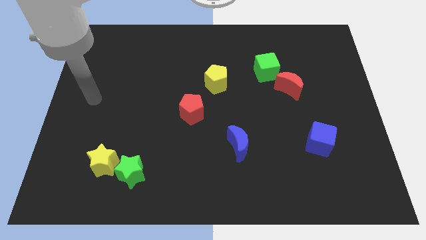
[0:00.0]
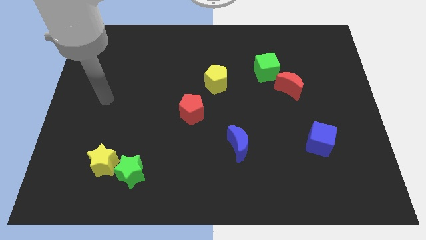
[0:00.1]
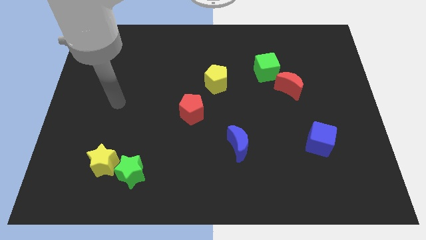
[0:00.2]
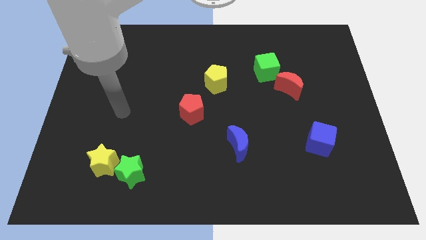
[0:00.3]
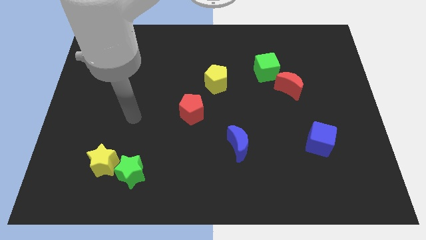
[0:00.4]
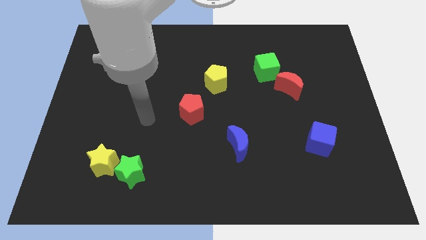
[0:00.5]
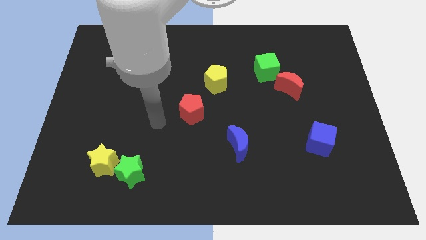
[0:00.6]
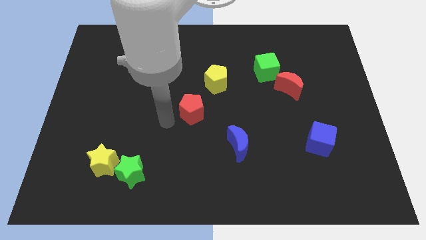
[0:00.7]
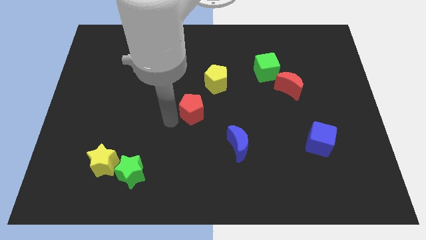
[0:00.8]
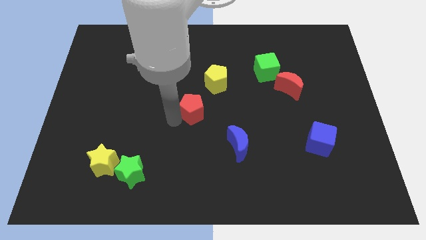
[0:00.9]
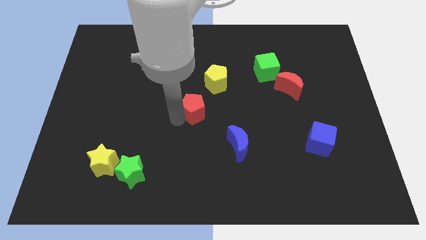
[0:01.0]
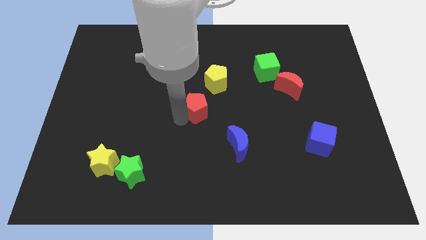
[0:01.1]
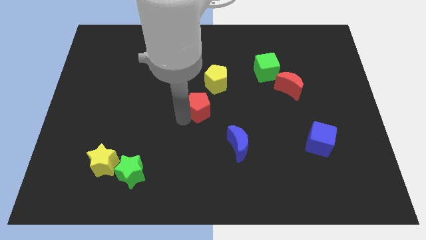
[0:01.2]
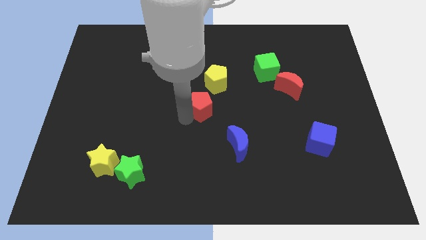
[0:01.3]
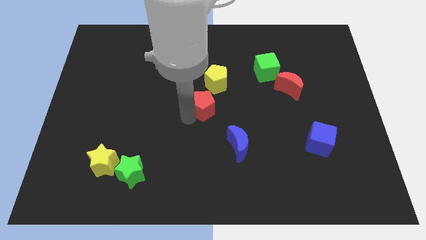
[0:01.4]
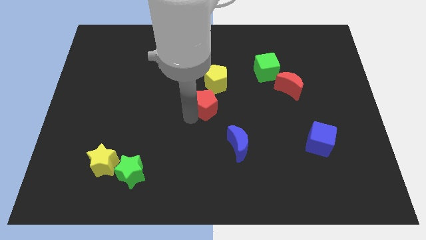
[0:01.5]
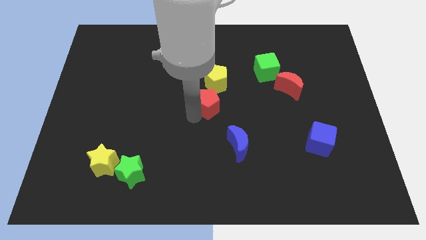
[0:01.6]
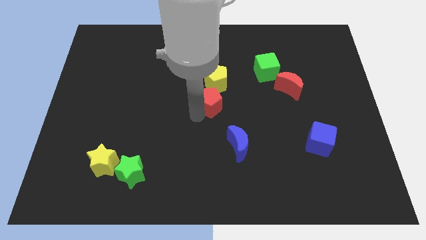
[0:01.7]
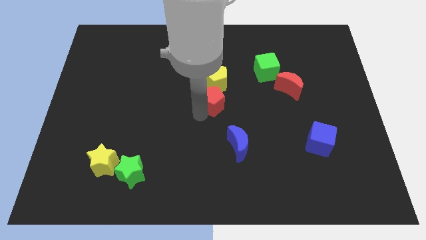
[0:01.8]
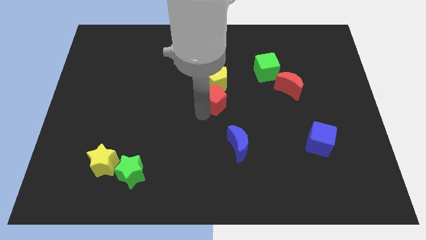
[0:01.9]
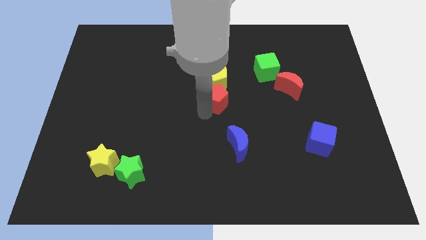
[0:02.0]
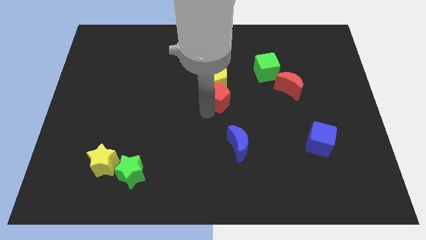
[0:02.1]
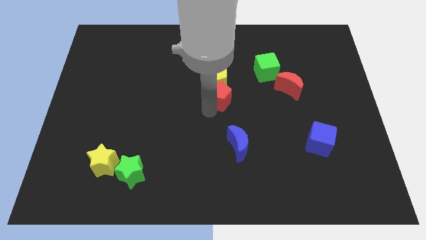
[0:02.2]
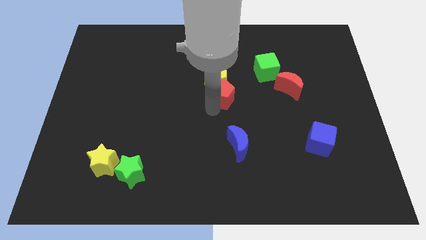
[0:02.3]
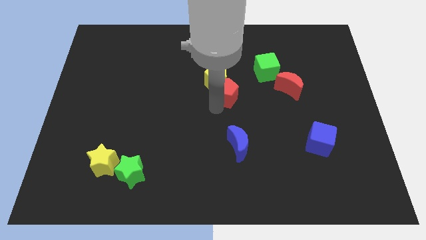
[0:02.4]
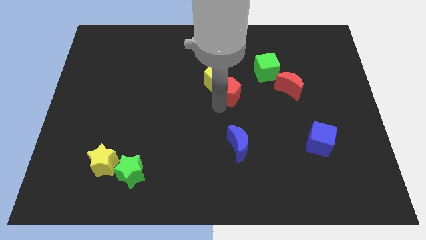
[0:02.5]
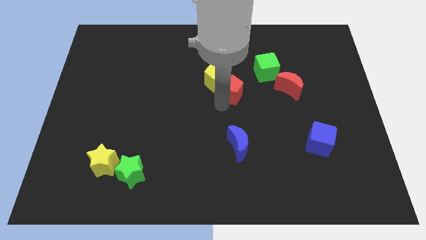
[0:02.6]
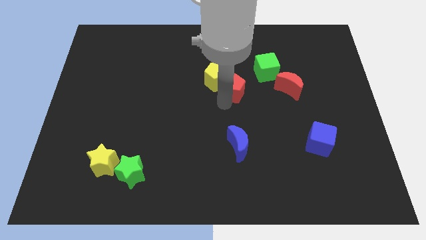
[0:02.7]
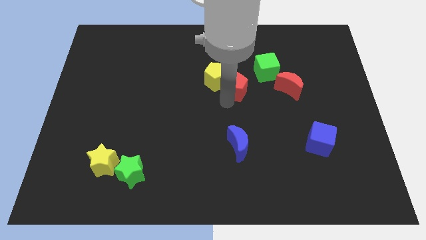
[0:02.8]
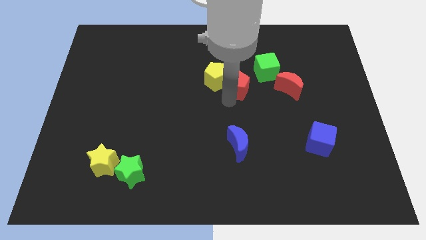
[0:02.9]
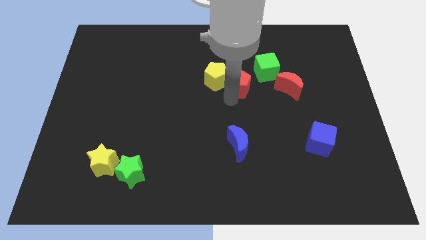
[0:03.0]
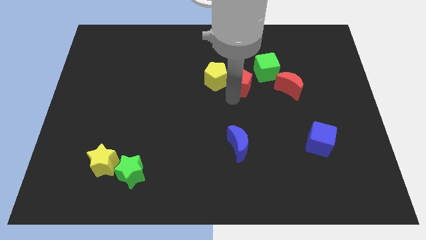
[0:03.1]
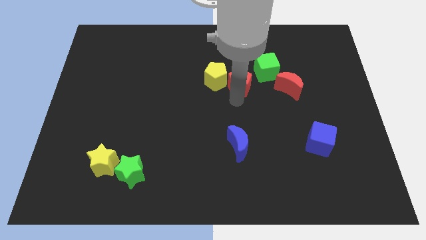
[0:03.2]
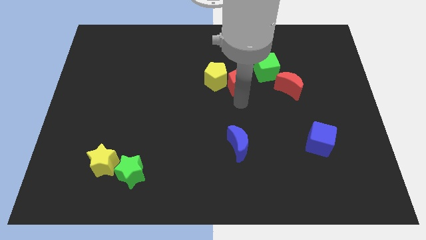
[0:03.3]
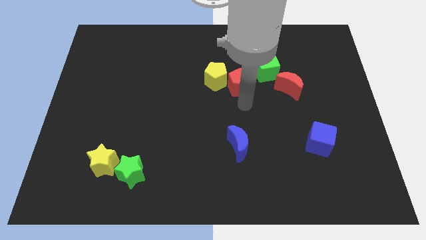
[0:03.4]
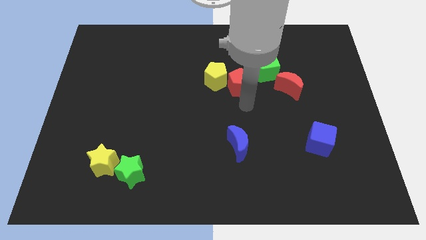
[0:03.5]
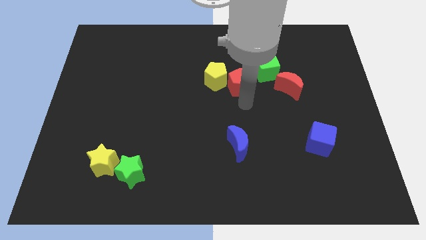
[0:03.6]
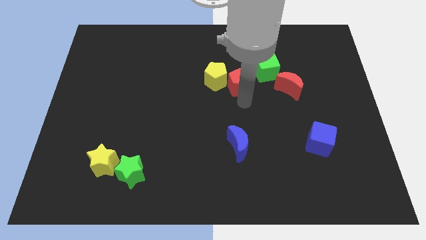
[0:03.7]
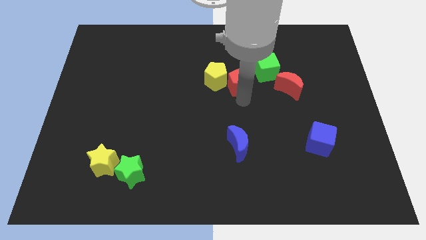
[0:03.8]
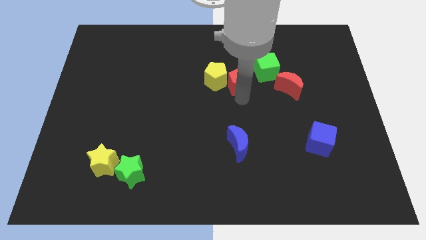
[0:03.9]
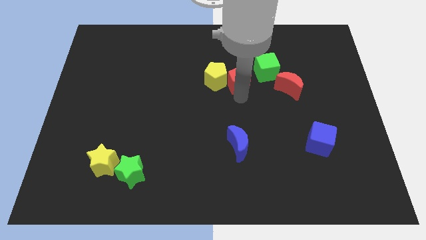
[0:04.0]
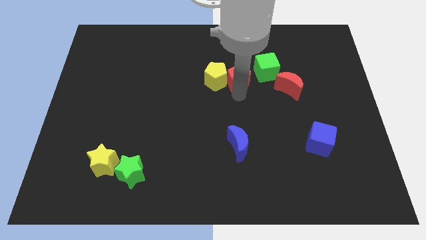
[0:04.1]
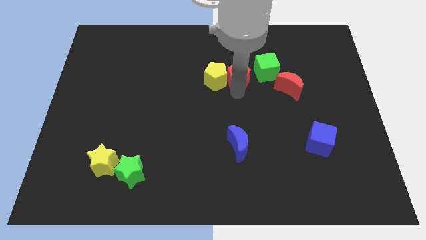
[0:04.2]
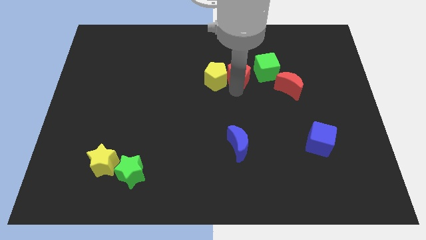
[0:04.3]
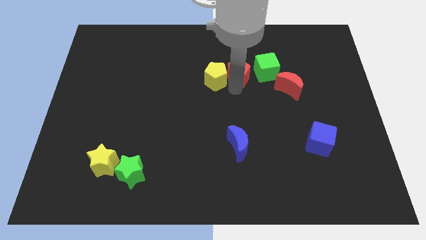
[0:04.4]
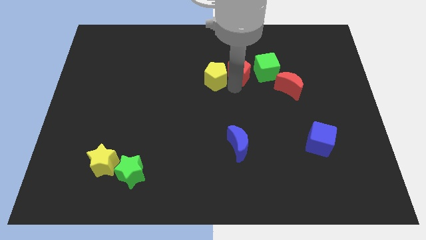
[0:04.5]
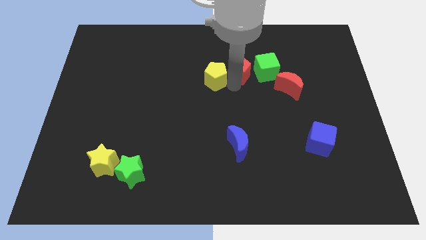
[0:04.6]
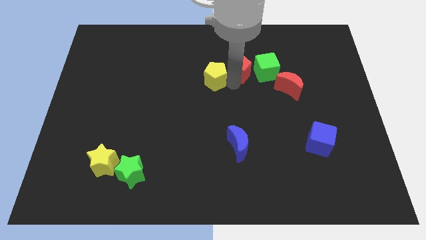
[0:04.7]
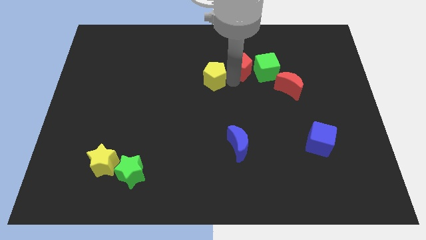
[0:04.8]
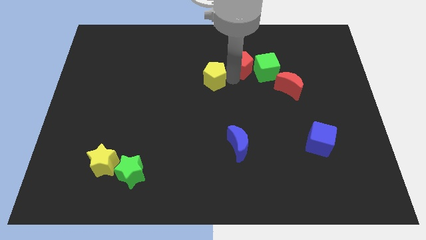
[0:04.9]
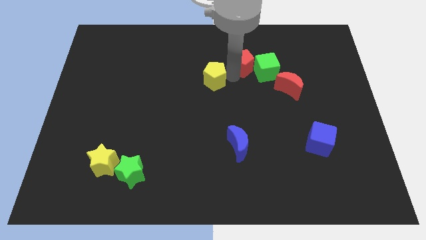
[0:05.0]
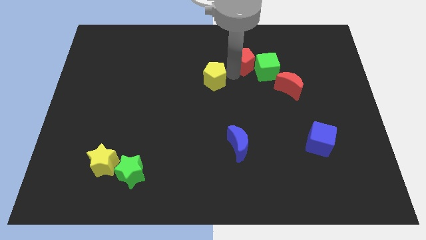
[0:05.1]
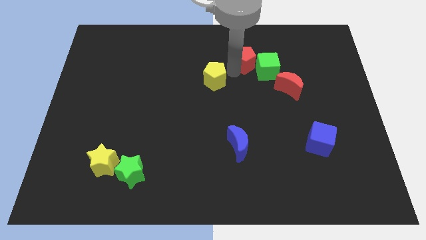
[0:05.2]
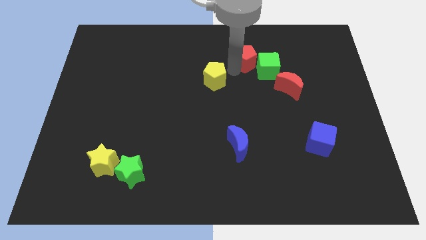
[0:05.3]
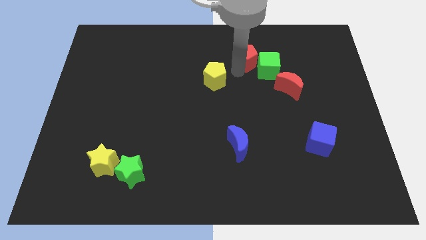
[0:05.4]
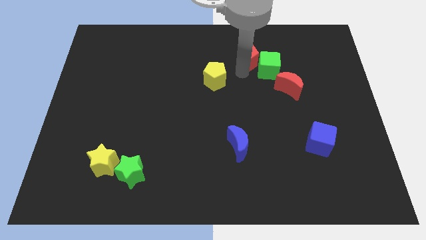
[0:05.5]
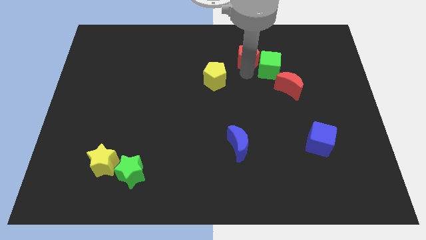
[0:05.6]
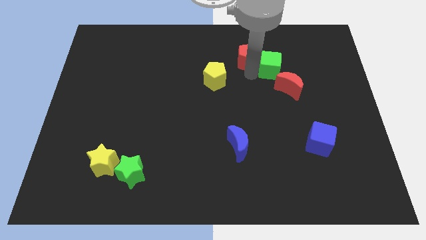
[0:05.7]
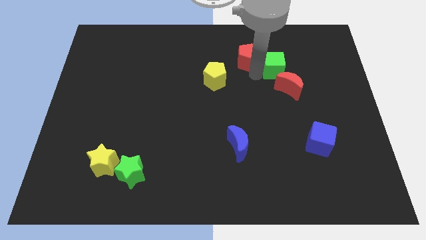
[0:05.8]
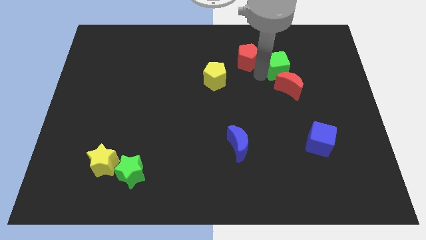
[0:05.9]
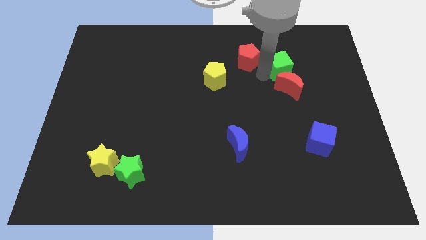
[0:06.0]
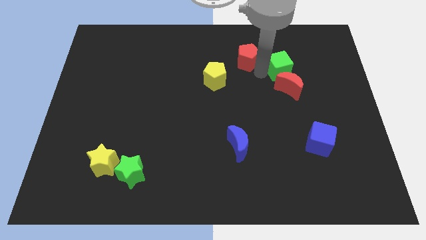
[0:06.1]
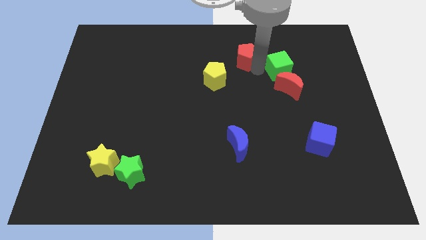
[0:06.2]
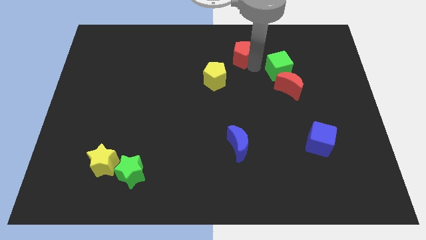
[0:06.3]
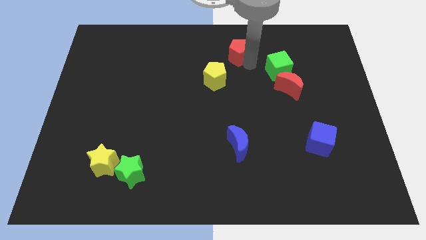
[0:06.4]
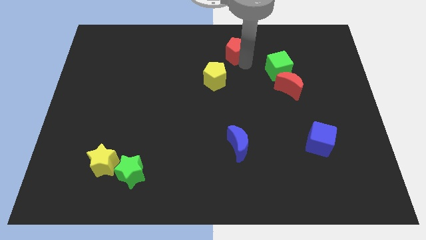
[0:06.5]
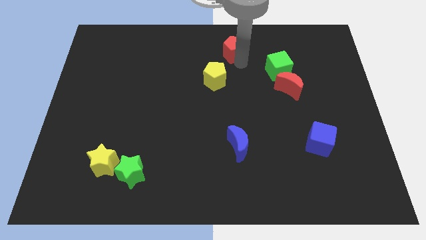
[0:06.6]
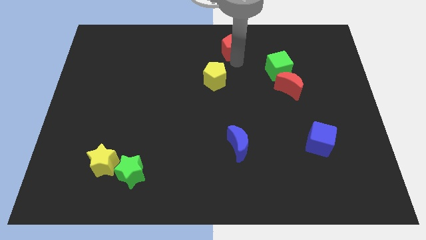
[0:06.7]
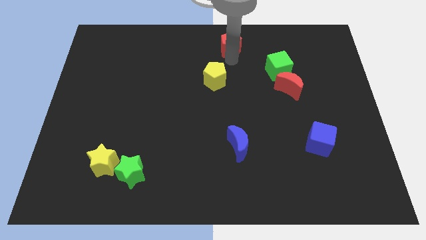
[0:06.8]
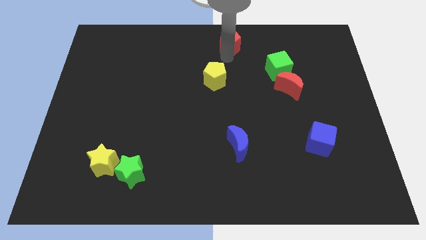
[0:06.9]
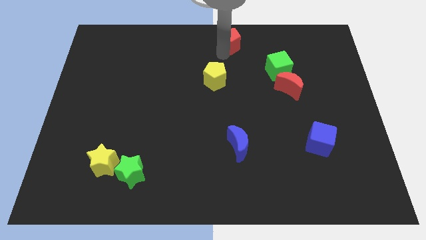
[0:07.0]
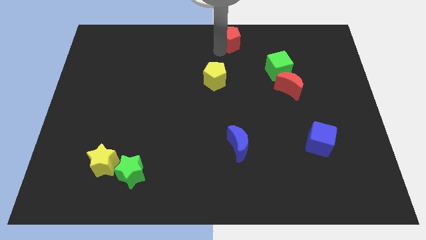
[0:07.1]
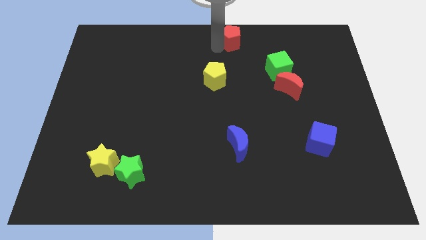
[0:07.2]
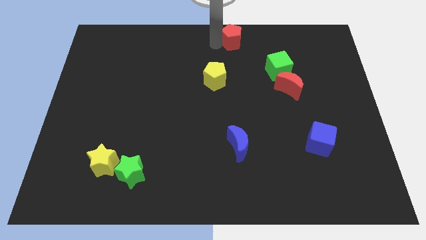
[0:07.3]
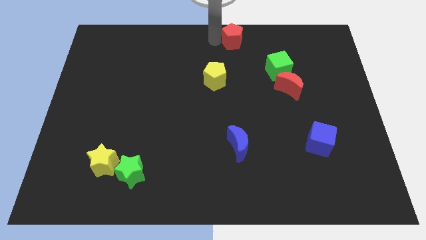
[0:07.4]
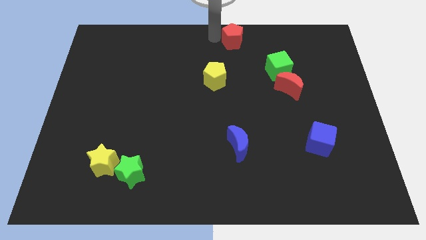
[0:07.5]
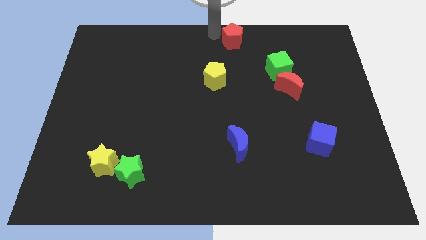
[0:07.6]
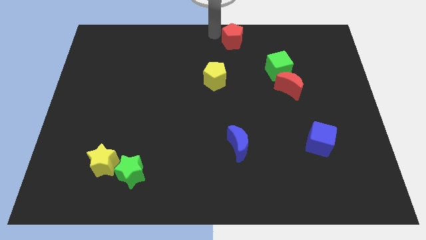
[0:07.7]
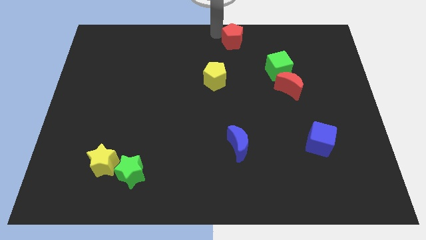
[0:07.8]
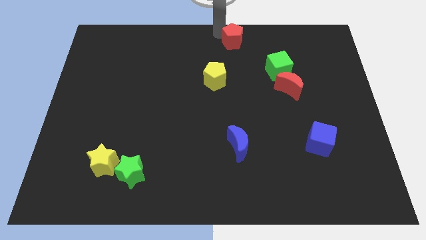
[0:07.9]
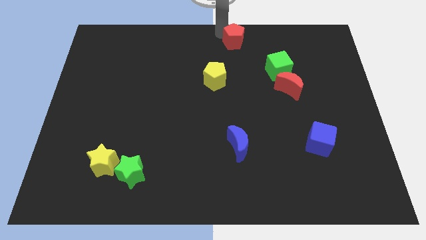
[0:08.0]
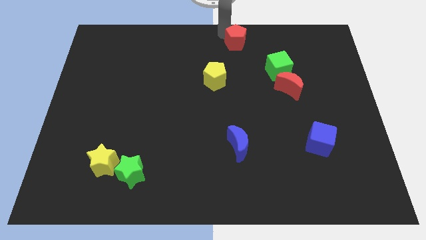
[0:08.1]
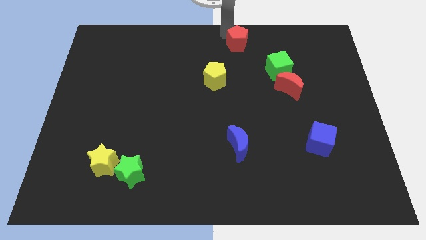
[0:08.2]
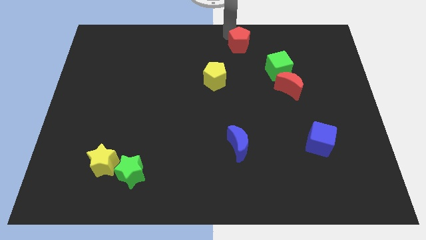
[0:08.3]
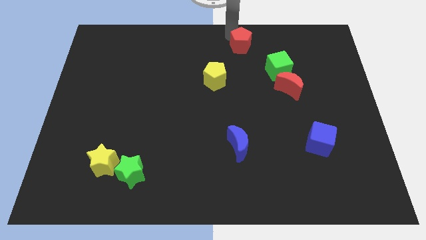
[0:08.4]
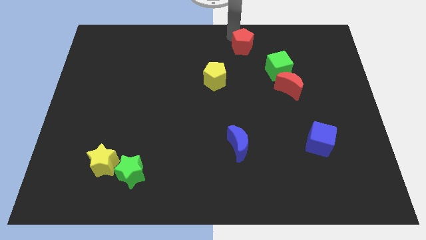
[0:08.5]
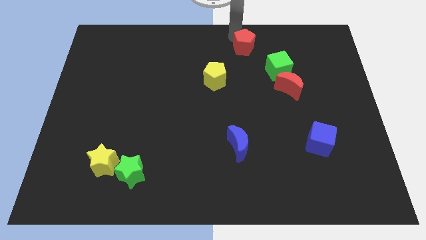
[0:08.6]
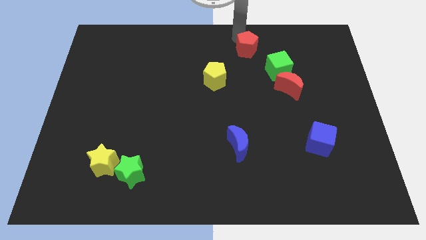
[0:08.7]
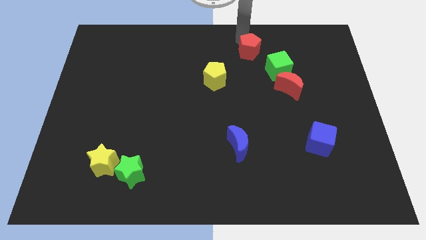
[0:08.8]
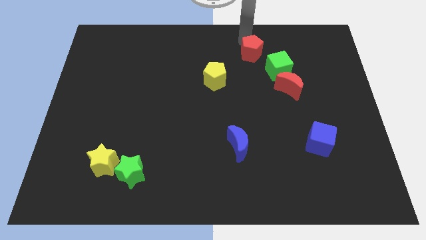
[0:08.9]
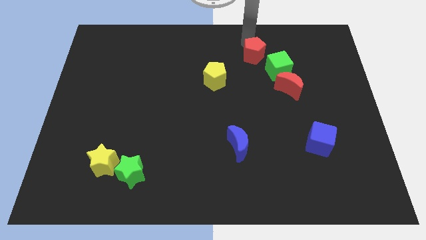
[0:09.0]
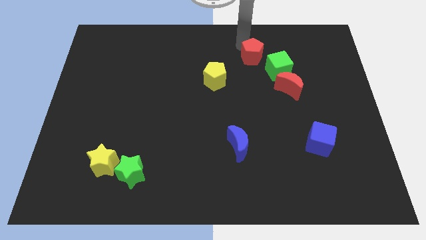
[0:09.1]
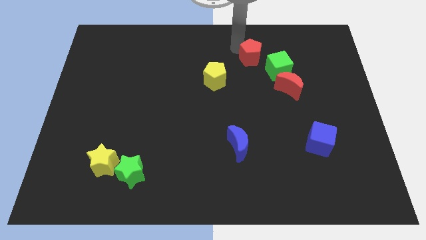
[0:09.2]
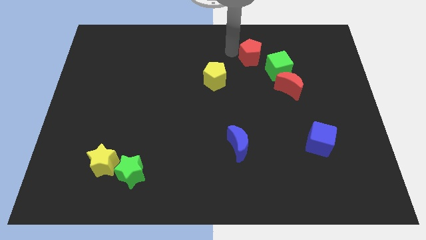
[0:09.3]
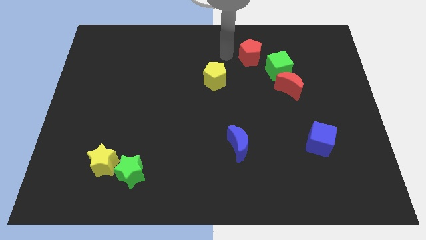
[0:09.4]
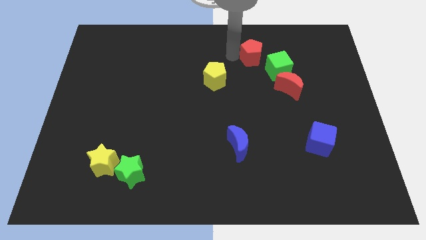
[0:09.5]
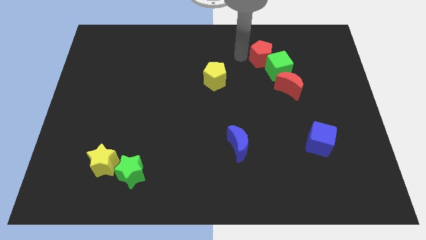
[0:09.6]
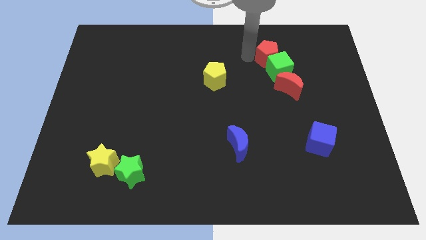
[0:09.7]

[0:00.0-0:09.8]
put the red pentagon above the red moon
